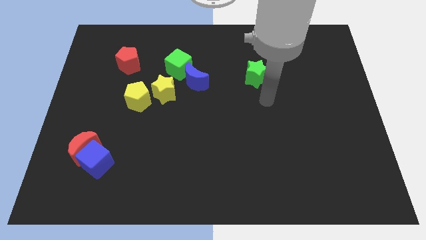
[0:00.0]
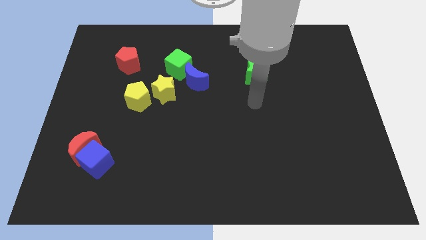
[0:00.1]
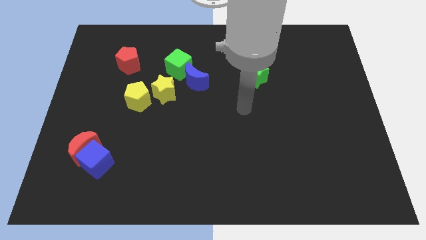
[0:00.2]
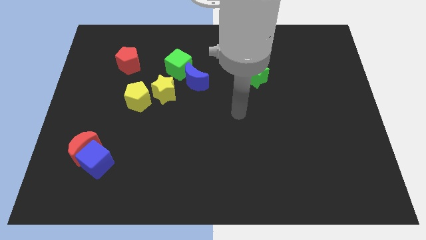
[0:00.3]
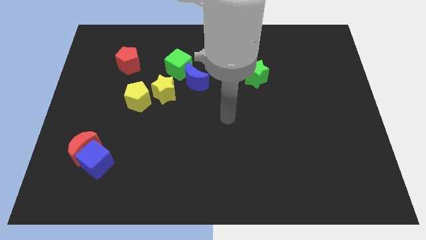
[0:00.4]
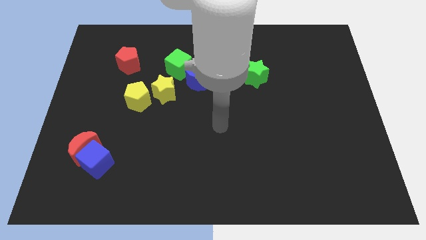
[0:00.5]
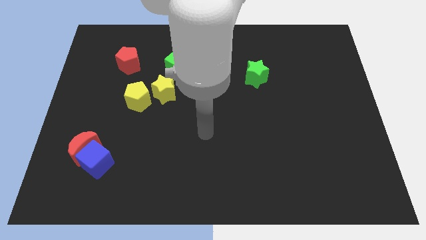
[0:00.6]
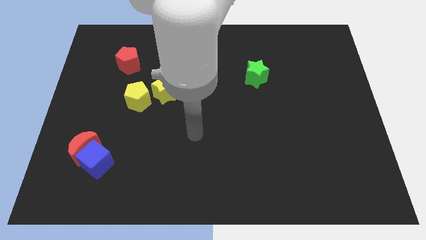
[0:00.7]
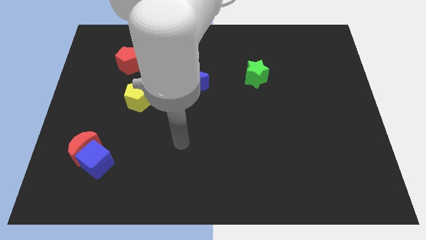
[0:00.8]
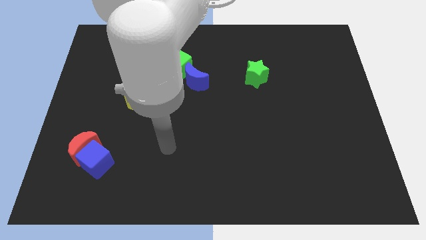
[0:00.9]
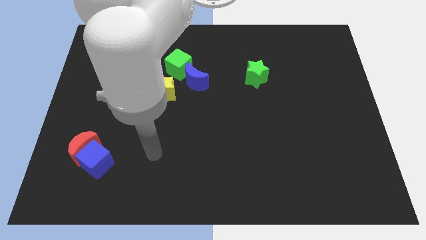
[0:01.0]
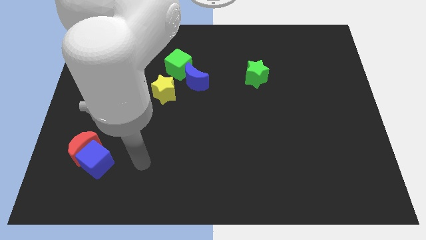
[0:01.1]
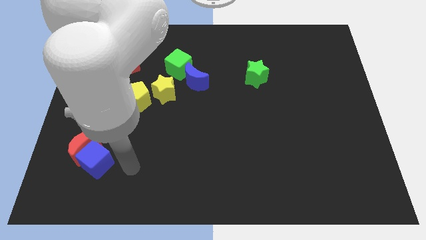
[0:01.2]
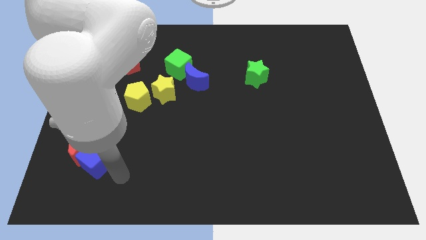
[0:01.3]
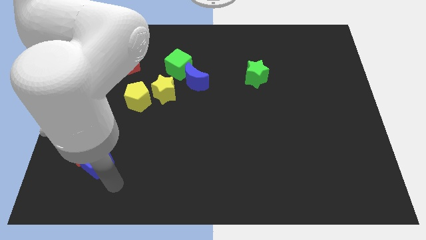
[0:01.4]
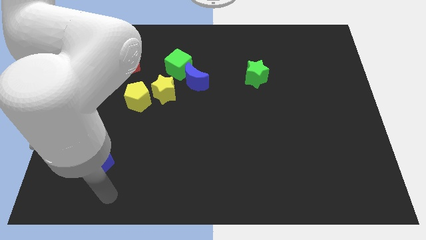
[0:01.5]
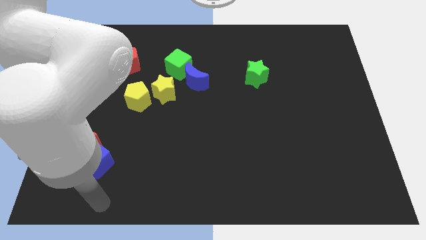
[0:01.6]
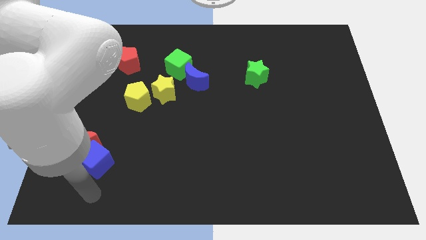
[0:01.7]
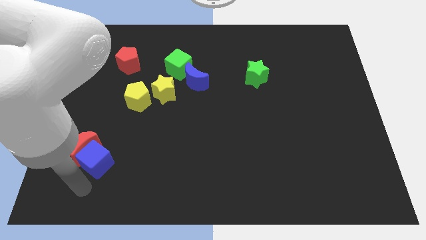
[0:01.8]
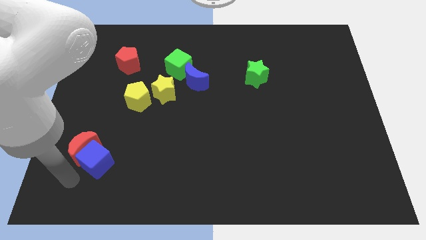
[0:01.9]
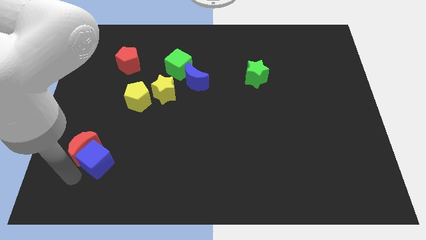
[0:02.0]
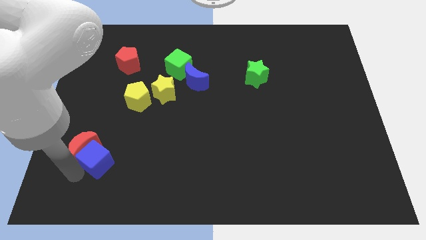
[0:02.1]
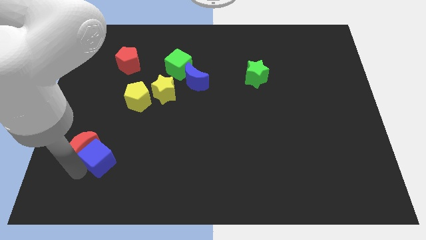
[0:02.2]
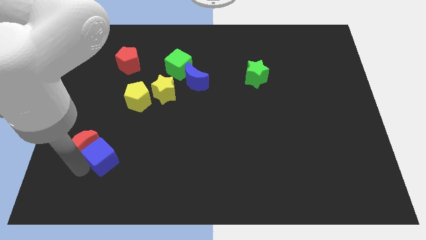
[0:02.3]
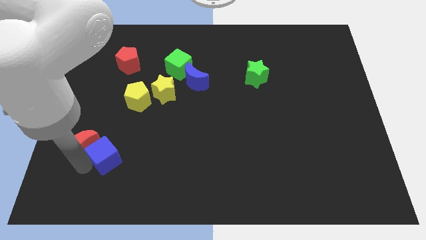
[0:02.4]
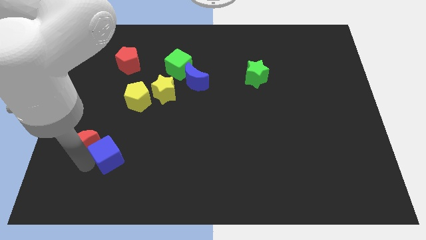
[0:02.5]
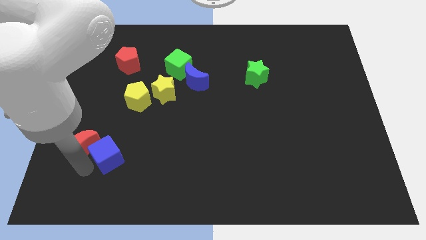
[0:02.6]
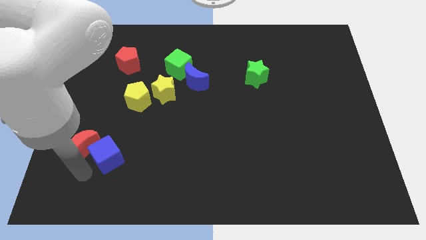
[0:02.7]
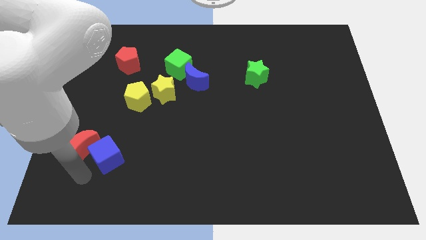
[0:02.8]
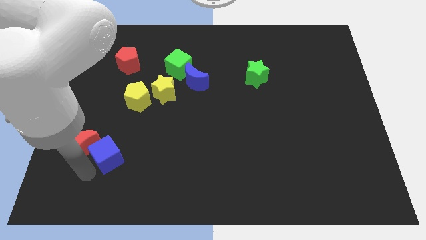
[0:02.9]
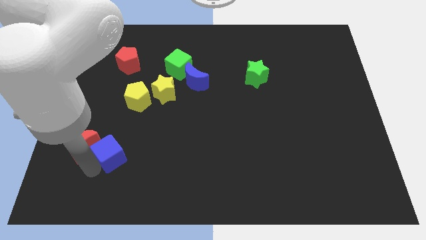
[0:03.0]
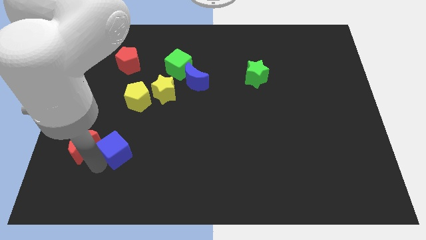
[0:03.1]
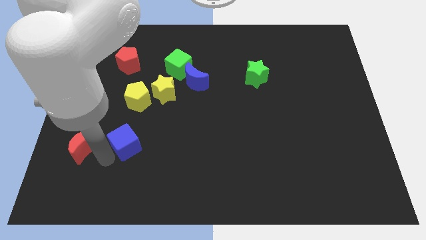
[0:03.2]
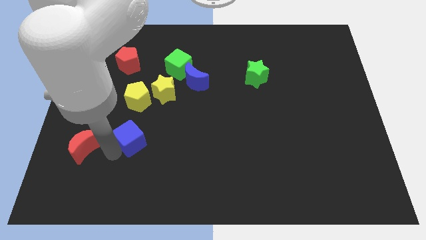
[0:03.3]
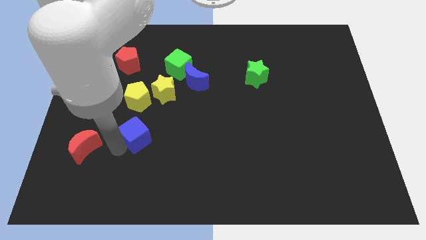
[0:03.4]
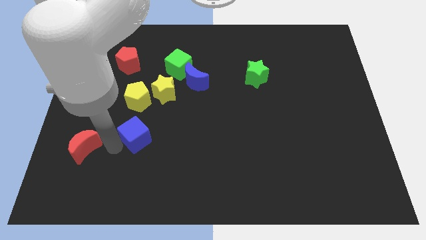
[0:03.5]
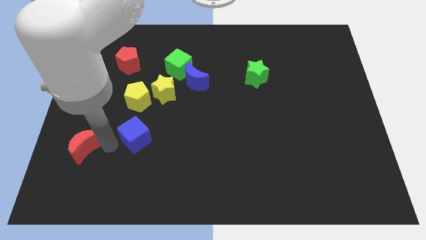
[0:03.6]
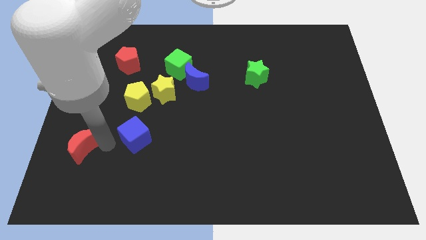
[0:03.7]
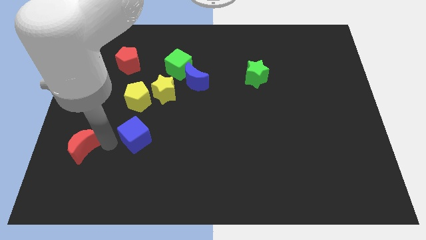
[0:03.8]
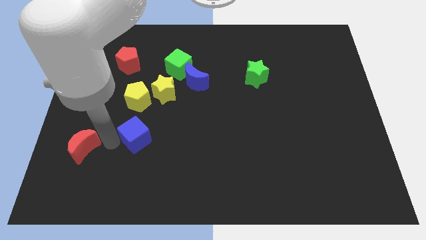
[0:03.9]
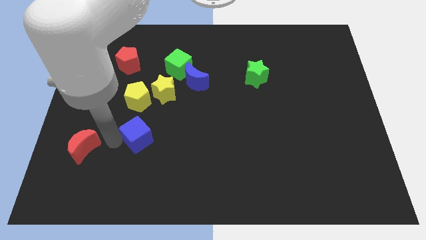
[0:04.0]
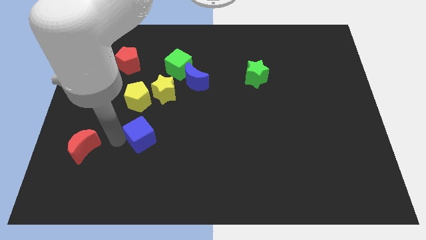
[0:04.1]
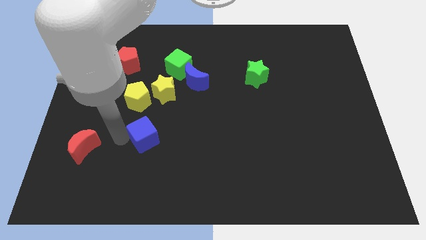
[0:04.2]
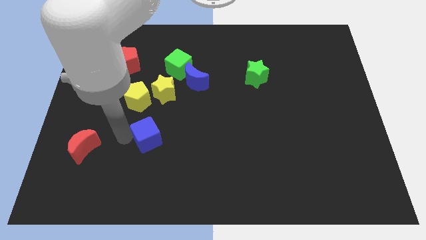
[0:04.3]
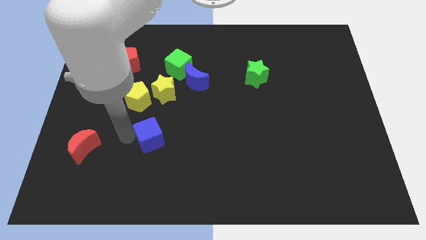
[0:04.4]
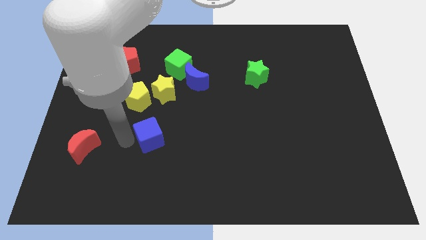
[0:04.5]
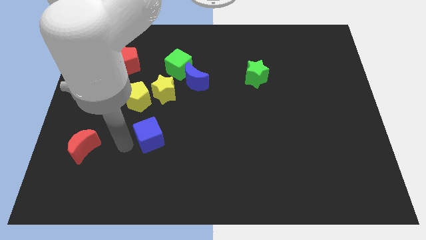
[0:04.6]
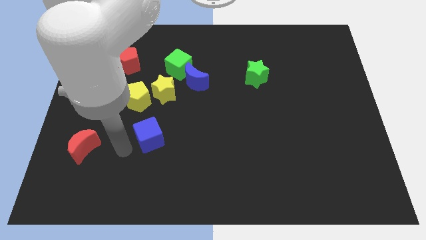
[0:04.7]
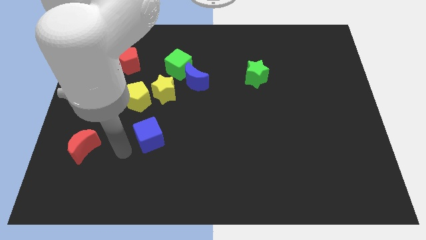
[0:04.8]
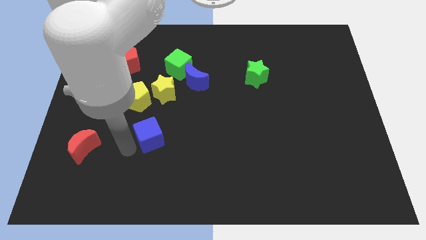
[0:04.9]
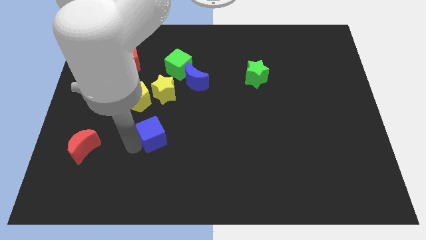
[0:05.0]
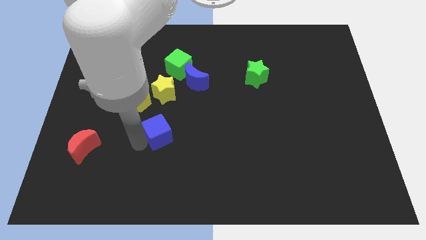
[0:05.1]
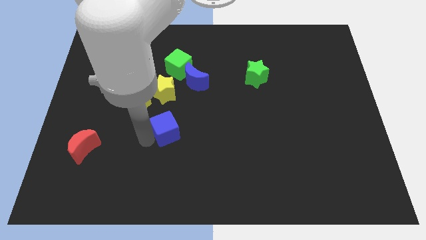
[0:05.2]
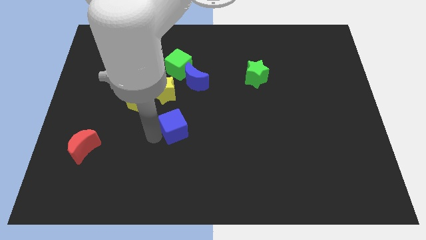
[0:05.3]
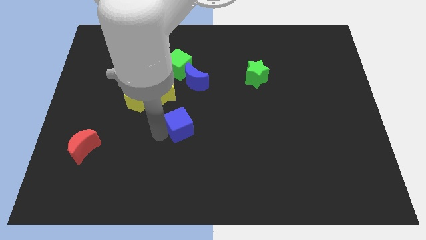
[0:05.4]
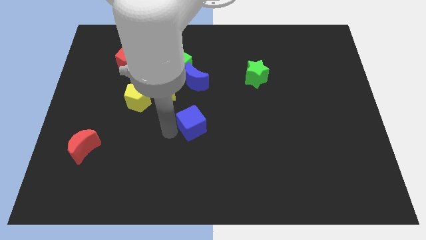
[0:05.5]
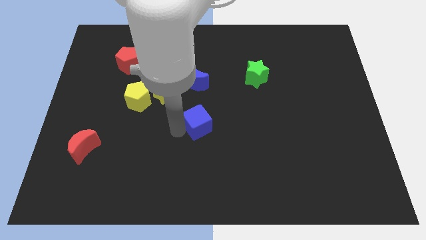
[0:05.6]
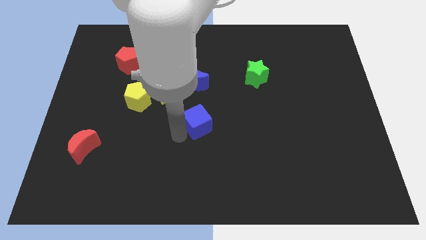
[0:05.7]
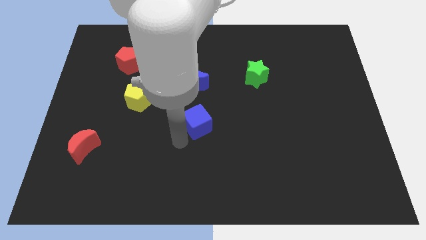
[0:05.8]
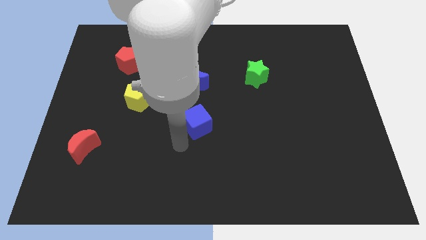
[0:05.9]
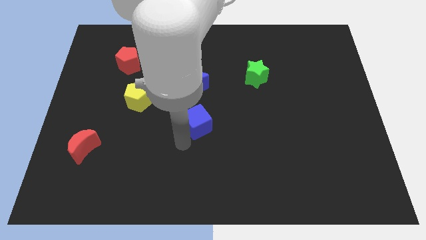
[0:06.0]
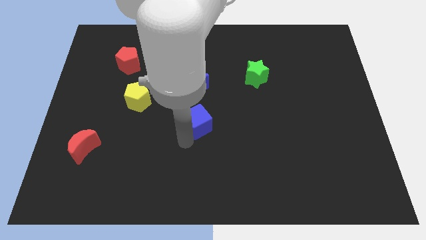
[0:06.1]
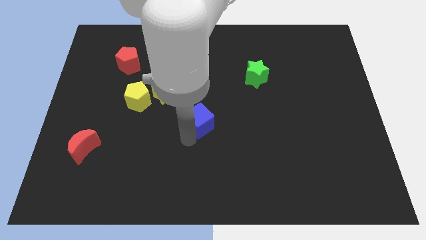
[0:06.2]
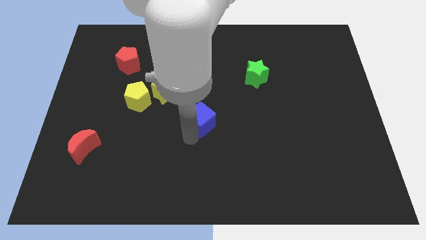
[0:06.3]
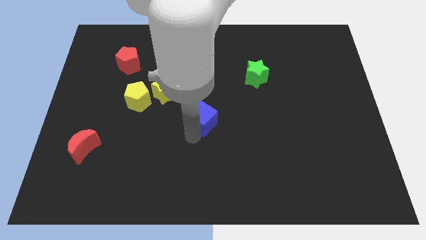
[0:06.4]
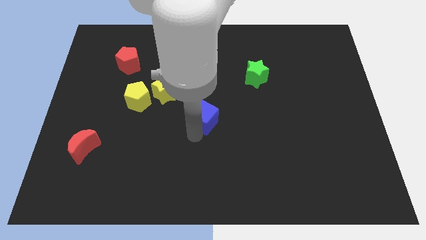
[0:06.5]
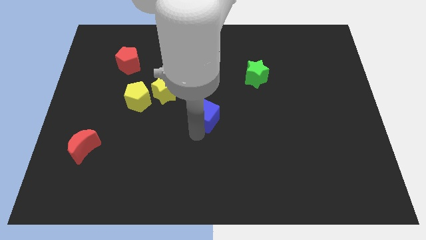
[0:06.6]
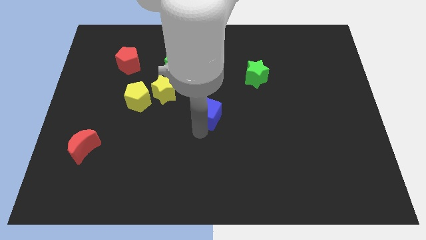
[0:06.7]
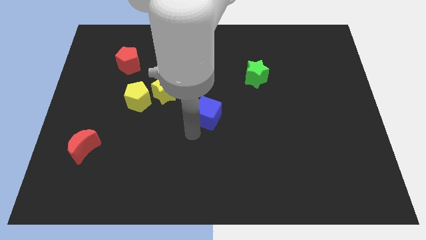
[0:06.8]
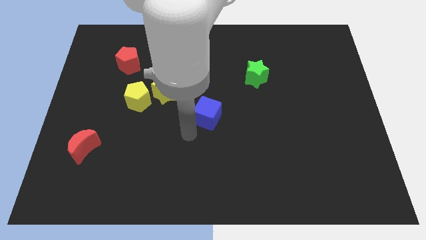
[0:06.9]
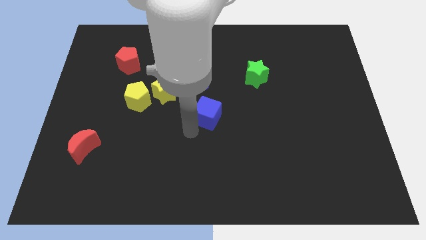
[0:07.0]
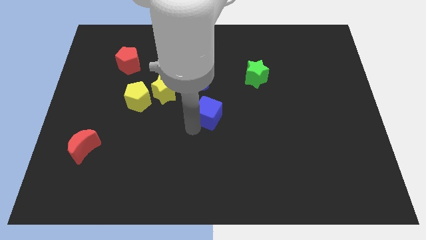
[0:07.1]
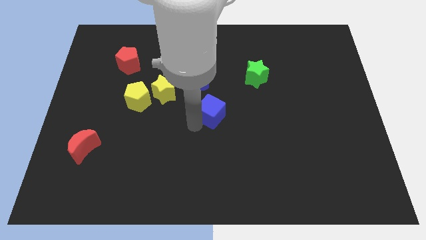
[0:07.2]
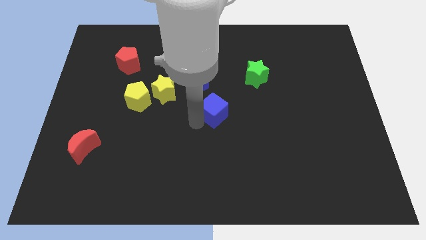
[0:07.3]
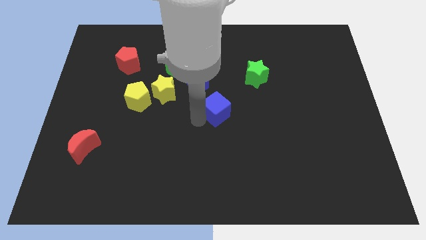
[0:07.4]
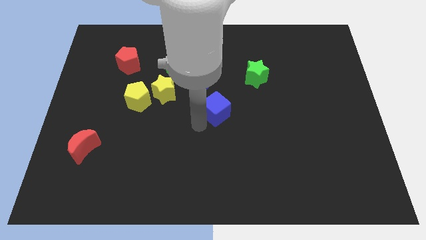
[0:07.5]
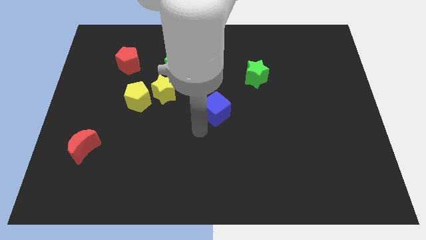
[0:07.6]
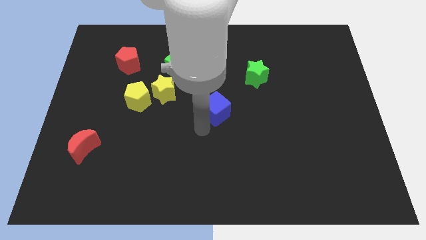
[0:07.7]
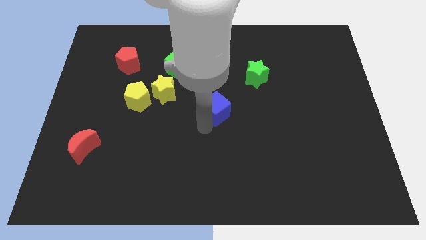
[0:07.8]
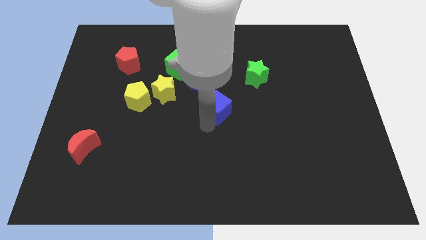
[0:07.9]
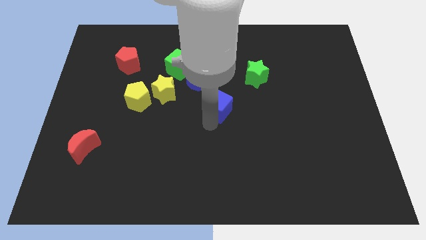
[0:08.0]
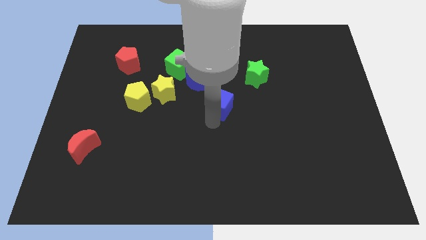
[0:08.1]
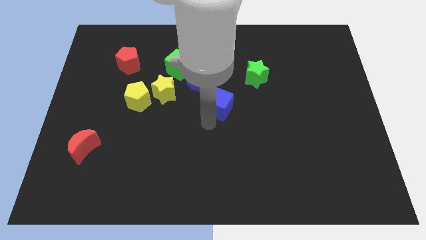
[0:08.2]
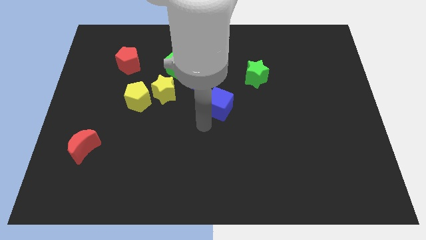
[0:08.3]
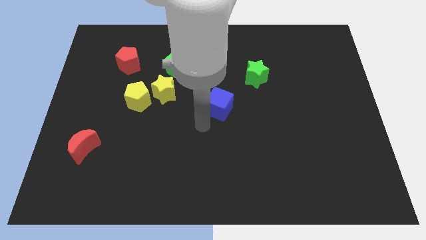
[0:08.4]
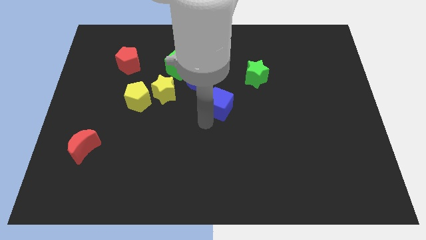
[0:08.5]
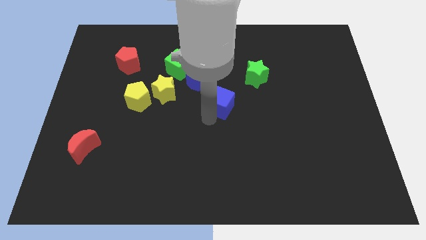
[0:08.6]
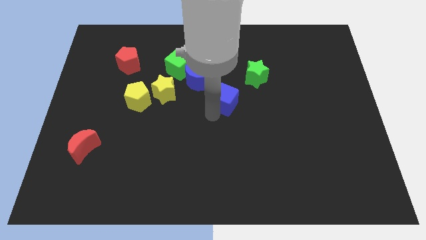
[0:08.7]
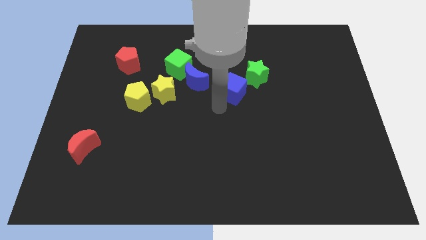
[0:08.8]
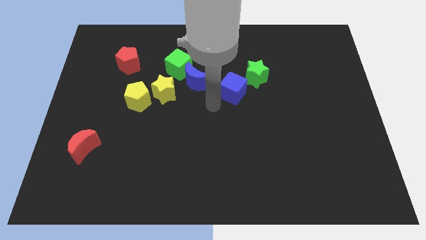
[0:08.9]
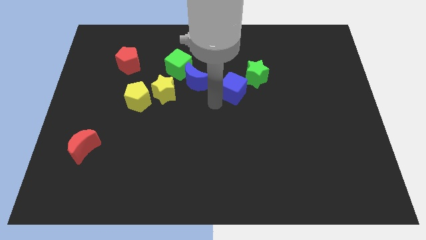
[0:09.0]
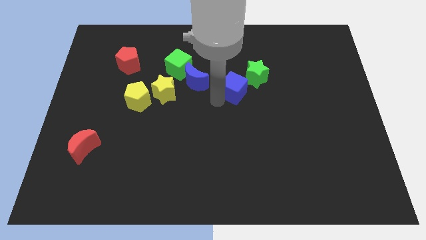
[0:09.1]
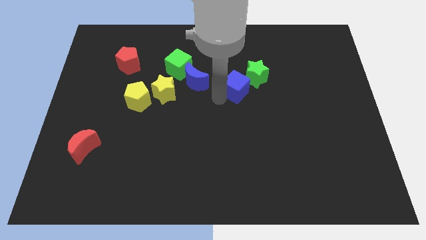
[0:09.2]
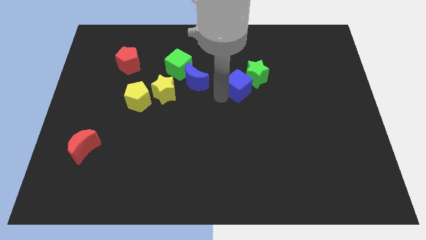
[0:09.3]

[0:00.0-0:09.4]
push the blue cube next to the green star
